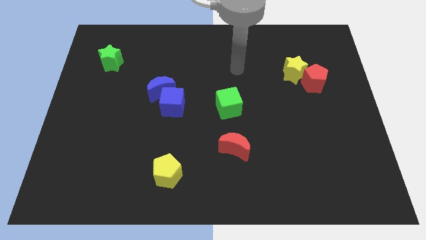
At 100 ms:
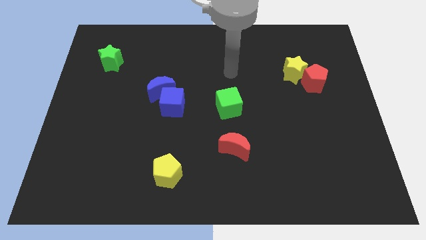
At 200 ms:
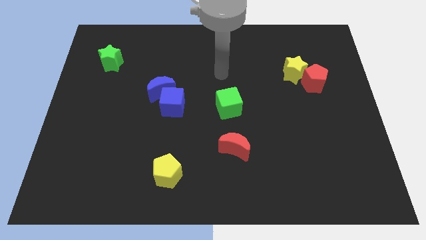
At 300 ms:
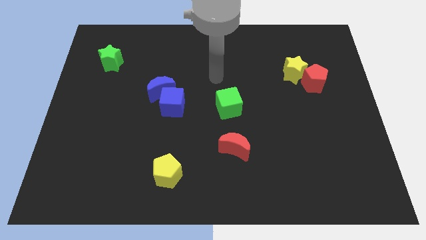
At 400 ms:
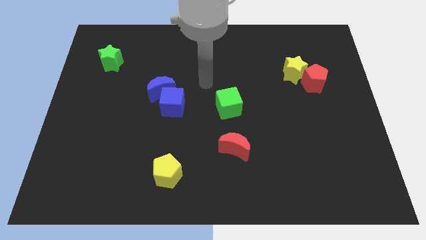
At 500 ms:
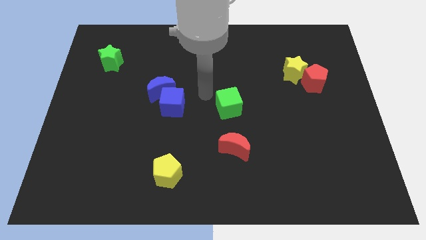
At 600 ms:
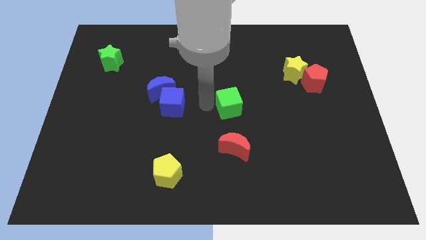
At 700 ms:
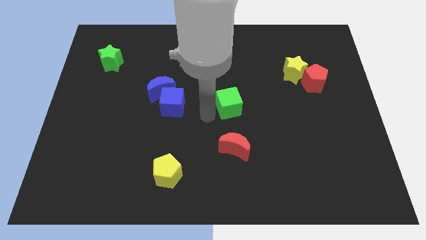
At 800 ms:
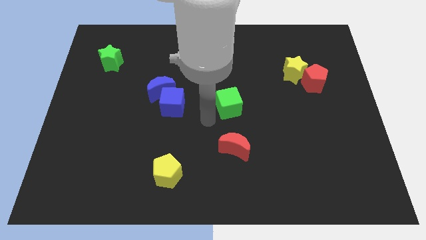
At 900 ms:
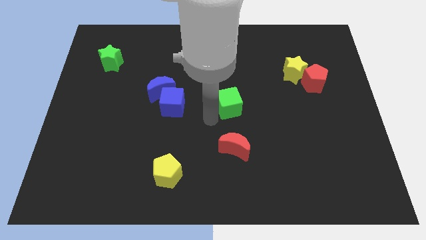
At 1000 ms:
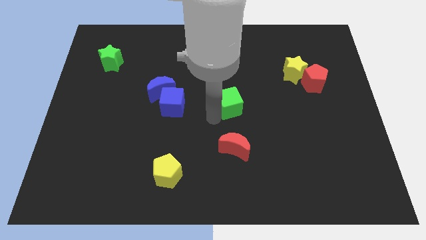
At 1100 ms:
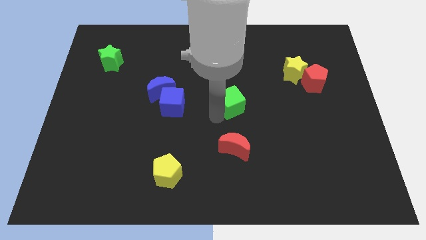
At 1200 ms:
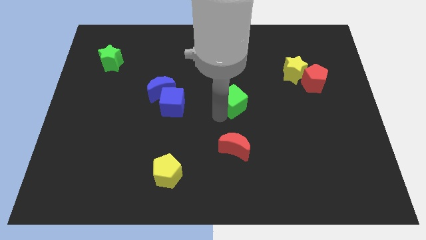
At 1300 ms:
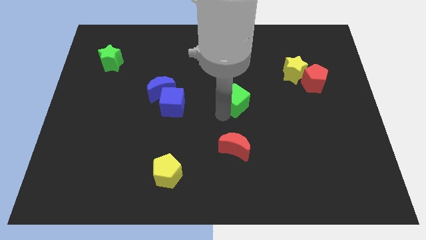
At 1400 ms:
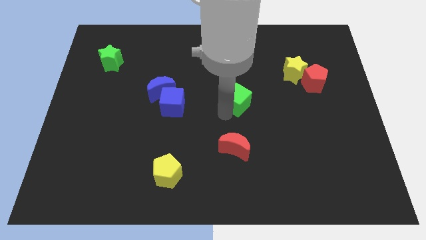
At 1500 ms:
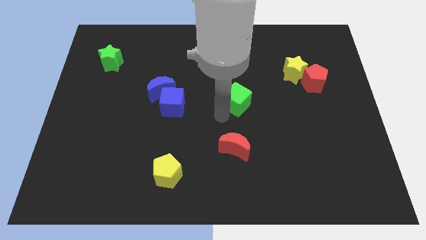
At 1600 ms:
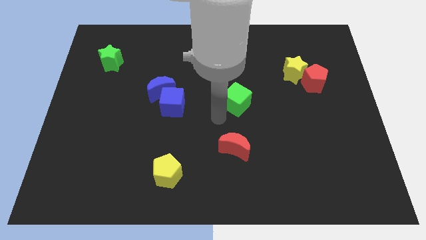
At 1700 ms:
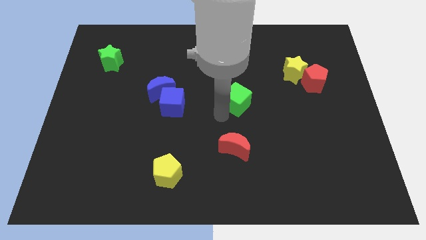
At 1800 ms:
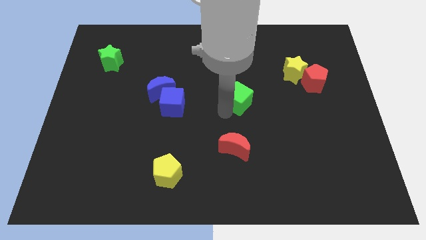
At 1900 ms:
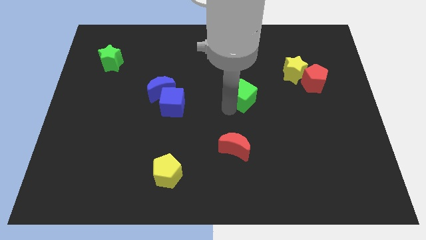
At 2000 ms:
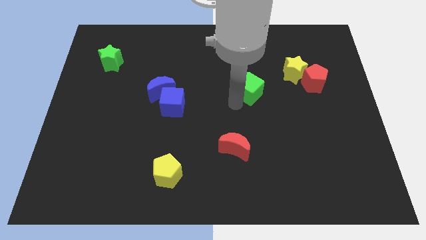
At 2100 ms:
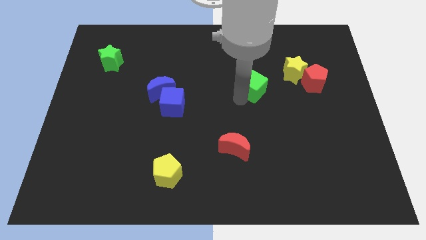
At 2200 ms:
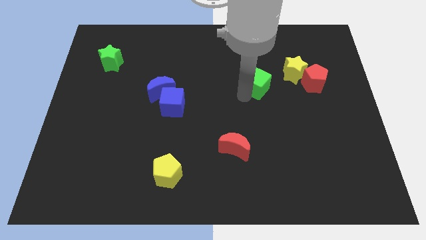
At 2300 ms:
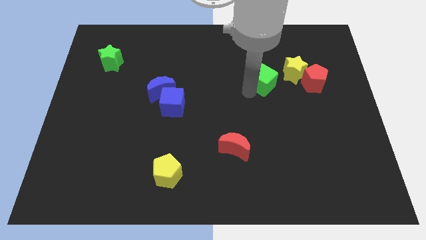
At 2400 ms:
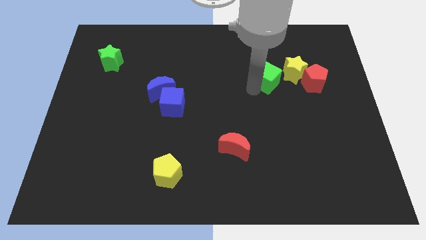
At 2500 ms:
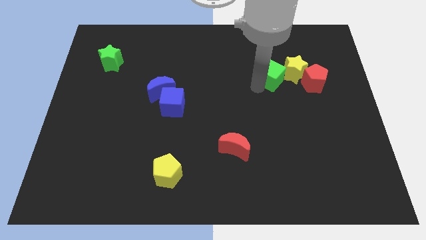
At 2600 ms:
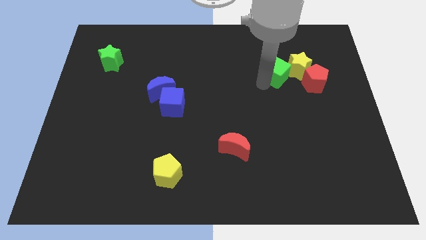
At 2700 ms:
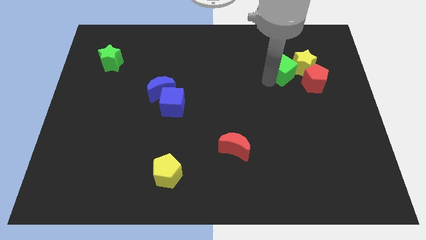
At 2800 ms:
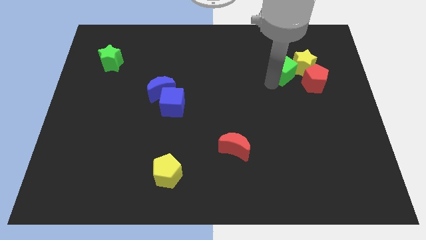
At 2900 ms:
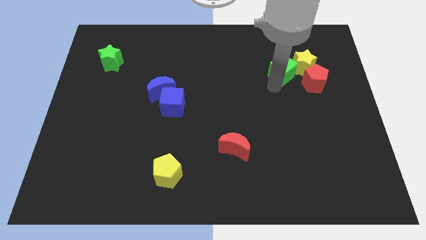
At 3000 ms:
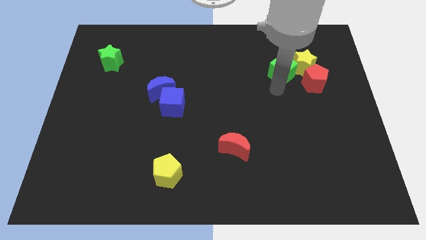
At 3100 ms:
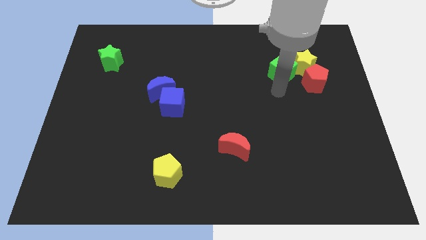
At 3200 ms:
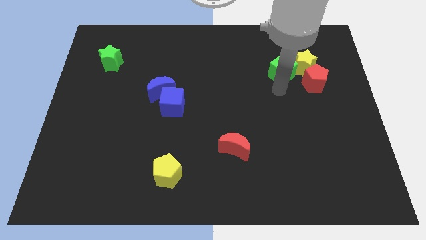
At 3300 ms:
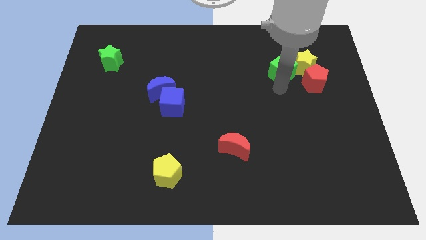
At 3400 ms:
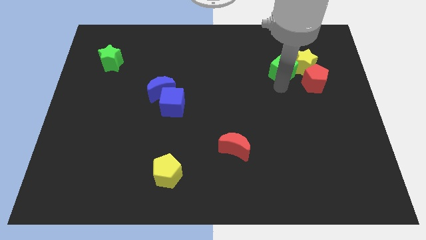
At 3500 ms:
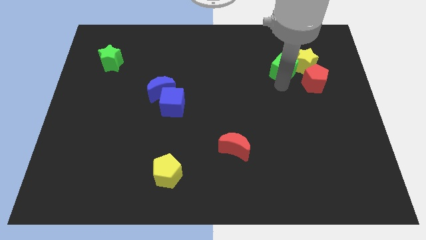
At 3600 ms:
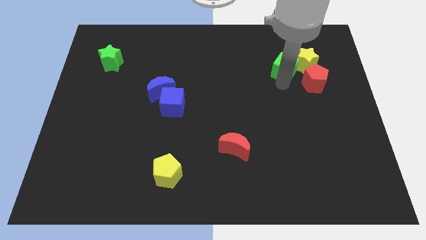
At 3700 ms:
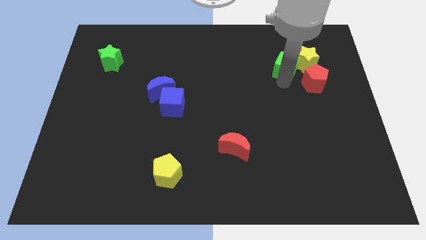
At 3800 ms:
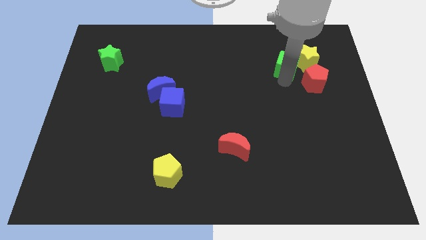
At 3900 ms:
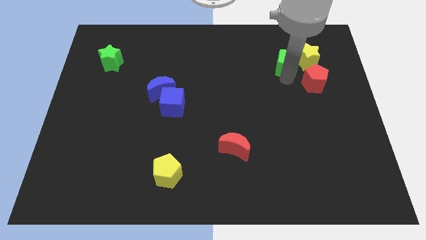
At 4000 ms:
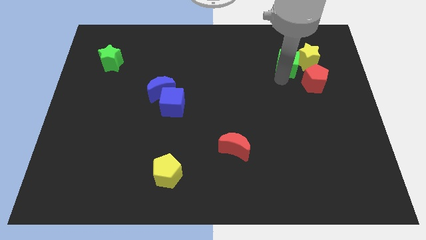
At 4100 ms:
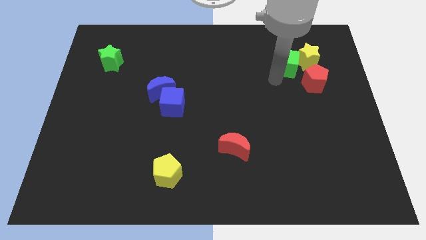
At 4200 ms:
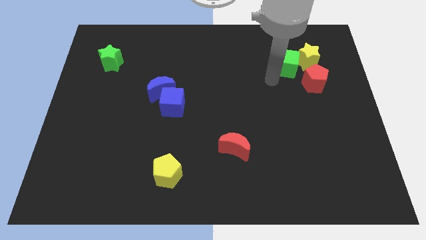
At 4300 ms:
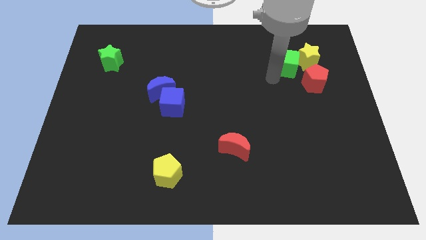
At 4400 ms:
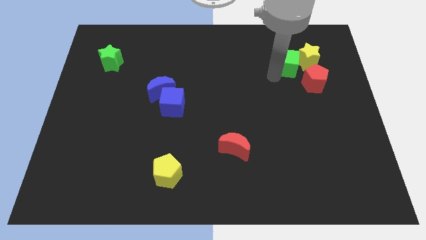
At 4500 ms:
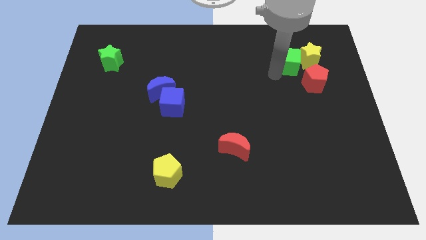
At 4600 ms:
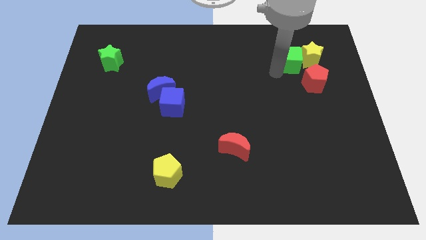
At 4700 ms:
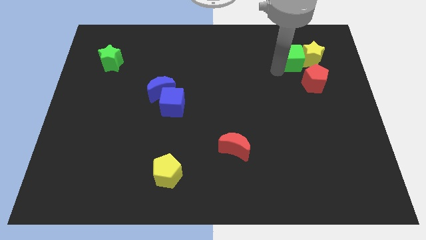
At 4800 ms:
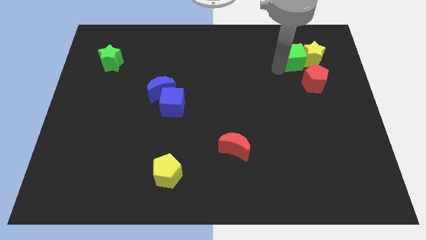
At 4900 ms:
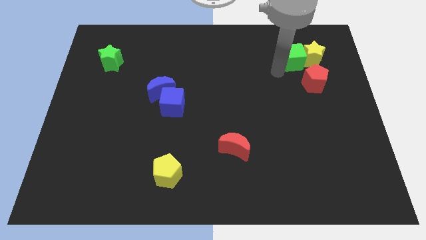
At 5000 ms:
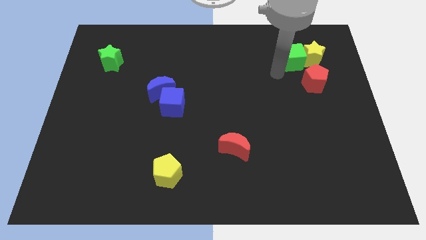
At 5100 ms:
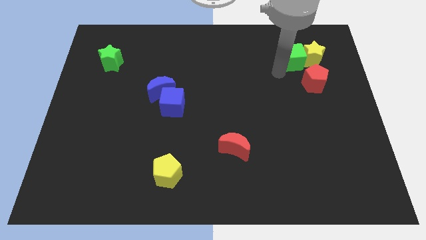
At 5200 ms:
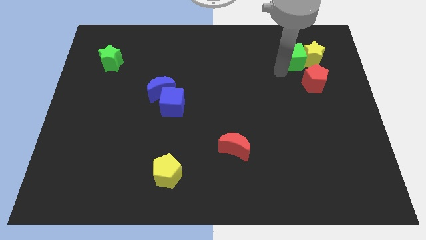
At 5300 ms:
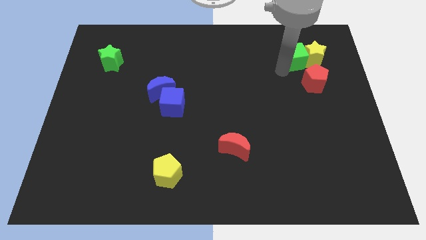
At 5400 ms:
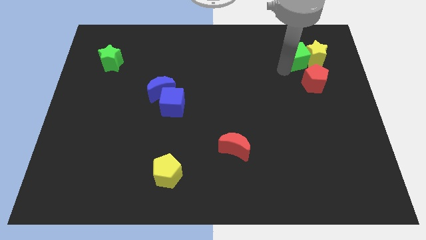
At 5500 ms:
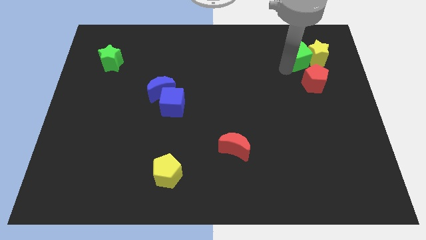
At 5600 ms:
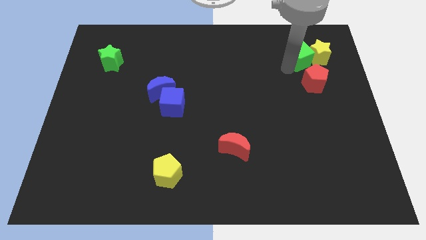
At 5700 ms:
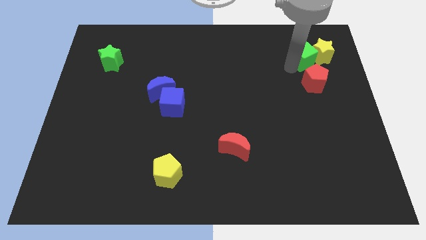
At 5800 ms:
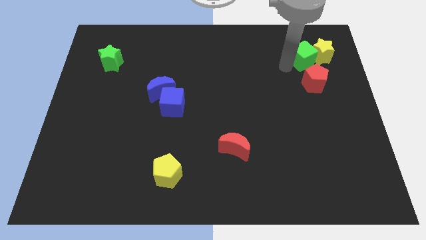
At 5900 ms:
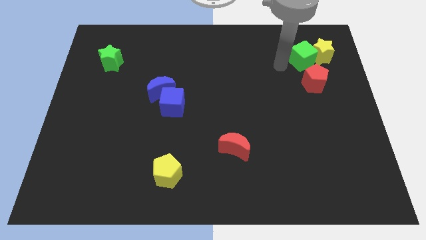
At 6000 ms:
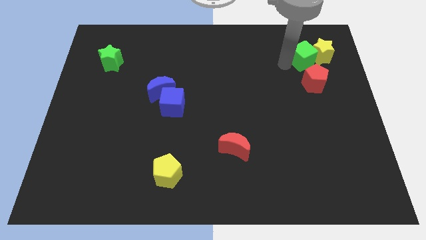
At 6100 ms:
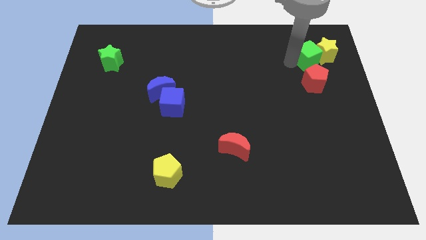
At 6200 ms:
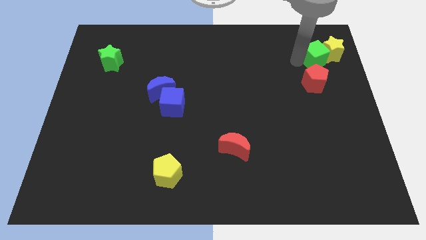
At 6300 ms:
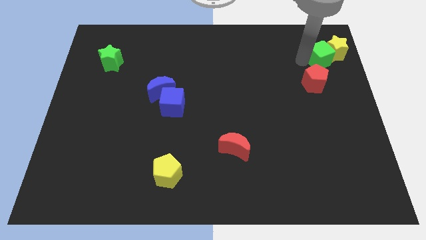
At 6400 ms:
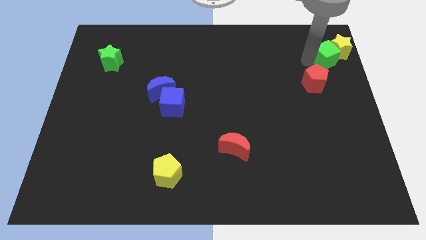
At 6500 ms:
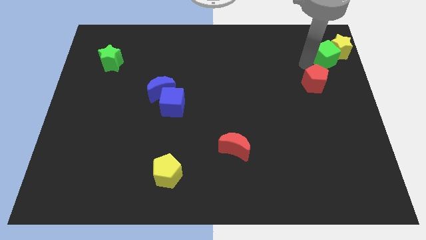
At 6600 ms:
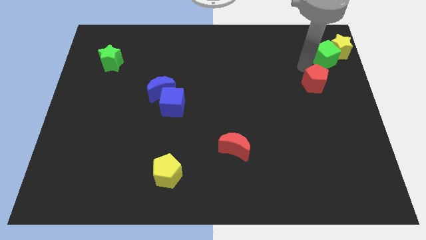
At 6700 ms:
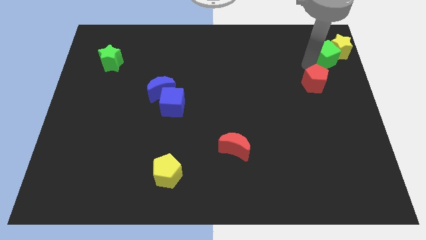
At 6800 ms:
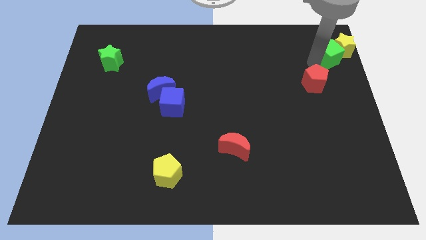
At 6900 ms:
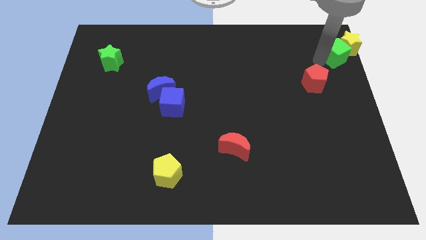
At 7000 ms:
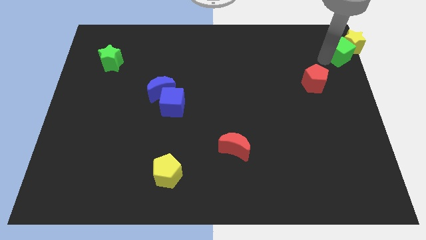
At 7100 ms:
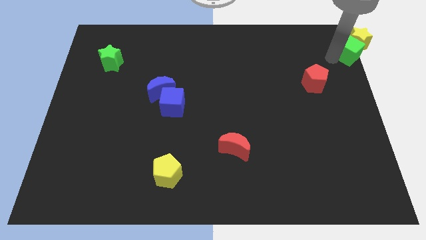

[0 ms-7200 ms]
move the green cube to the upper right corner
